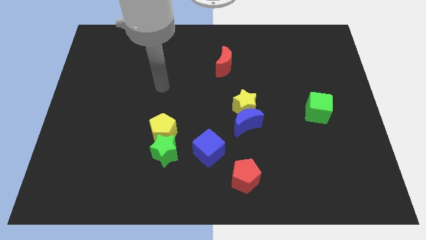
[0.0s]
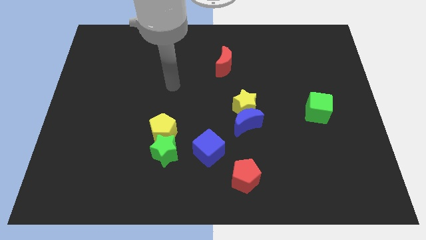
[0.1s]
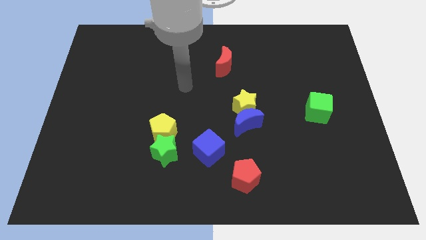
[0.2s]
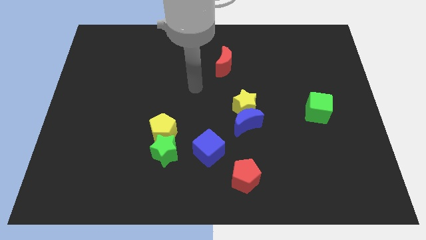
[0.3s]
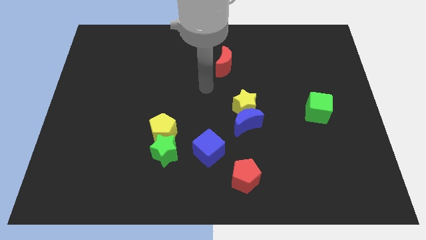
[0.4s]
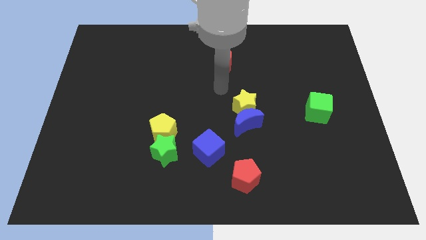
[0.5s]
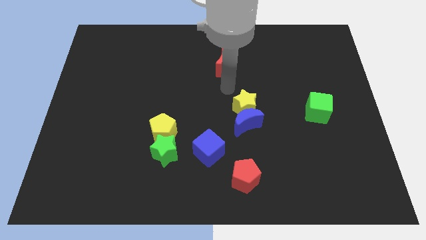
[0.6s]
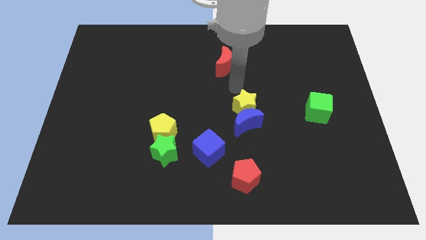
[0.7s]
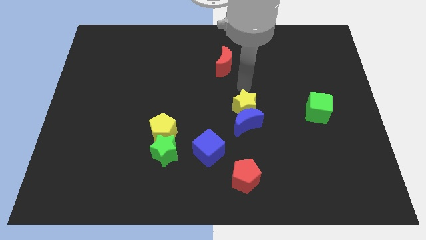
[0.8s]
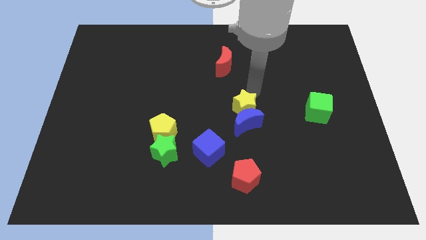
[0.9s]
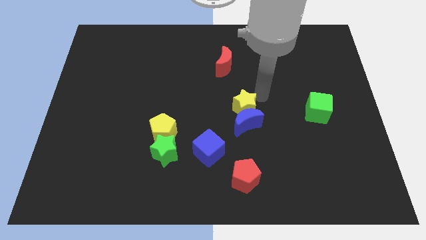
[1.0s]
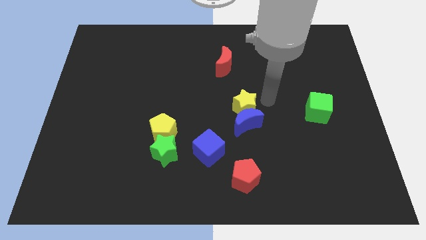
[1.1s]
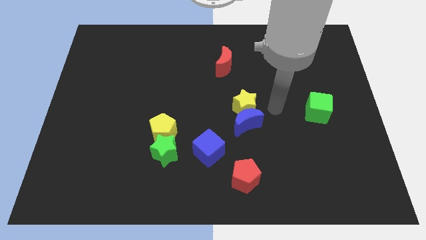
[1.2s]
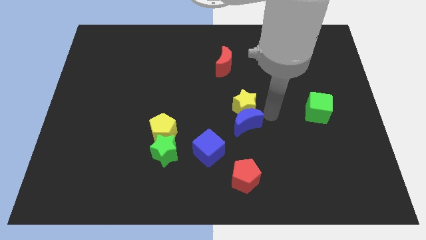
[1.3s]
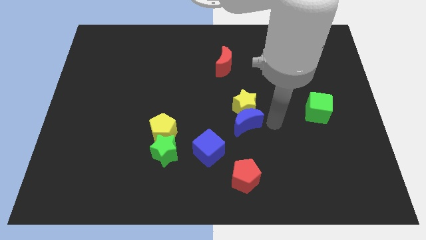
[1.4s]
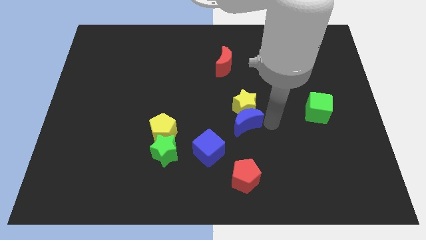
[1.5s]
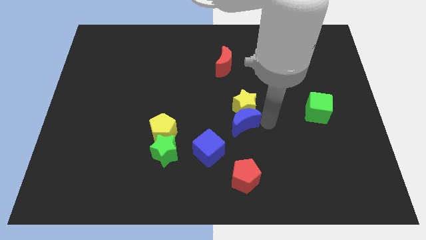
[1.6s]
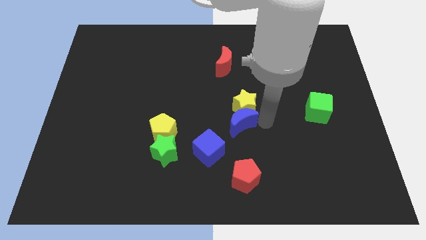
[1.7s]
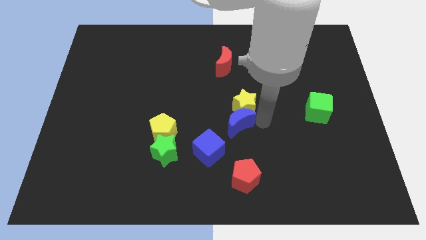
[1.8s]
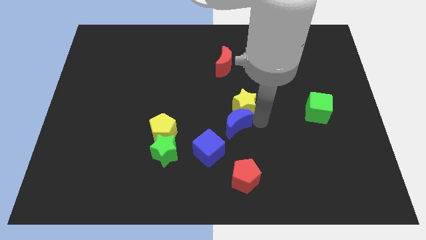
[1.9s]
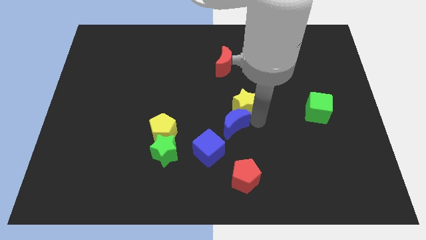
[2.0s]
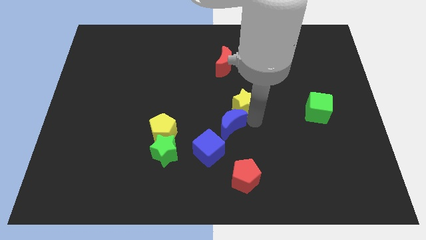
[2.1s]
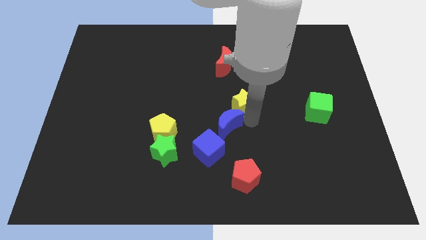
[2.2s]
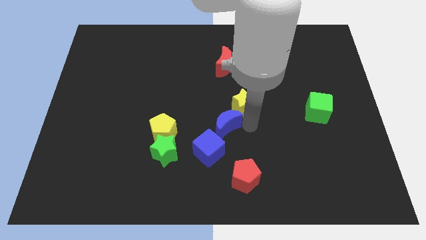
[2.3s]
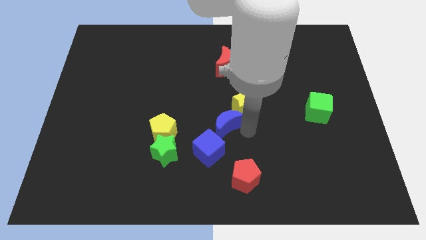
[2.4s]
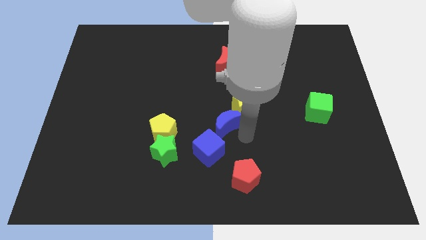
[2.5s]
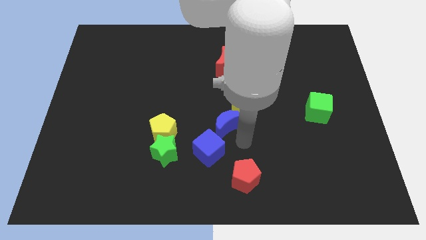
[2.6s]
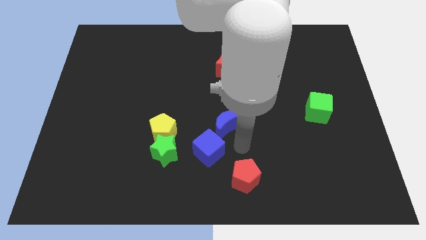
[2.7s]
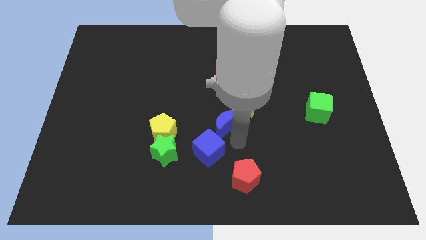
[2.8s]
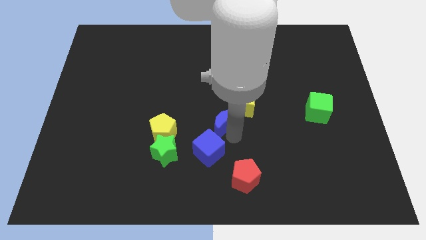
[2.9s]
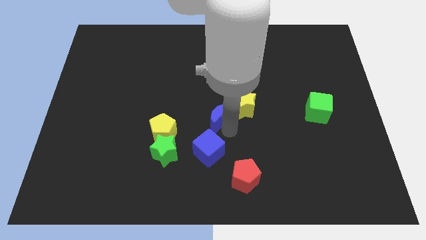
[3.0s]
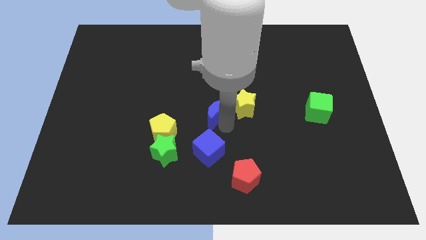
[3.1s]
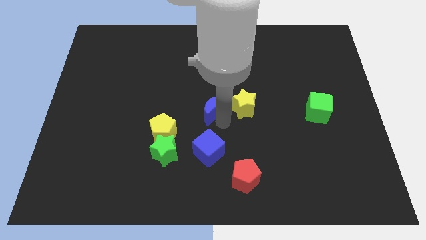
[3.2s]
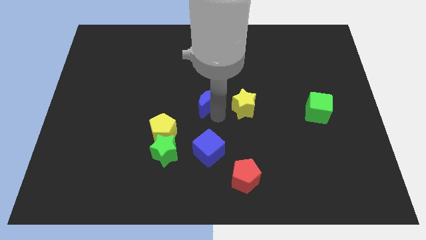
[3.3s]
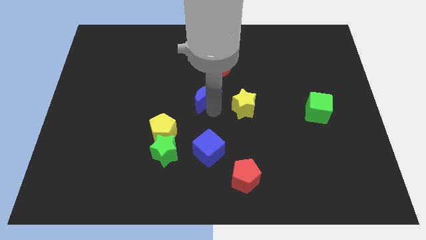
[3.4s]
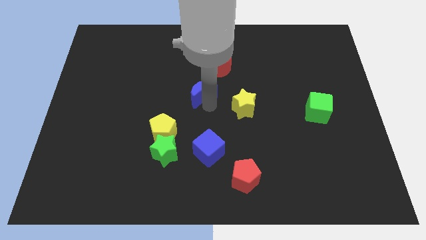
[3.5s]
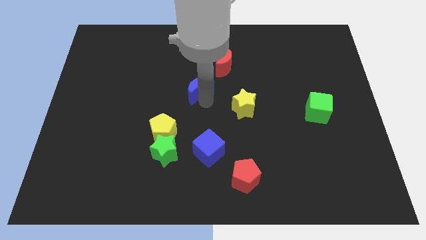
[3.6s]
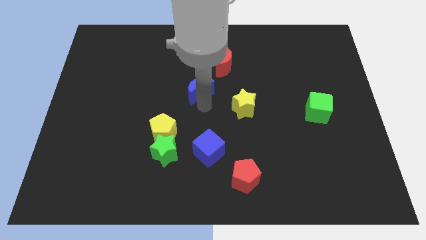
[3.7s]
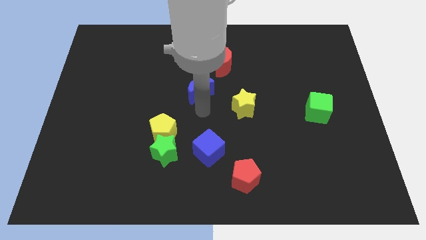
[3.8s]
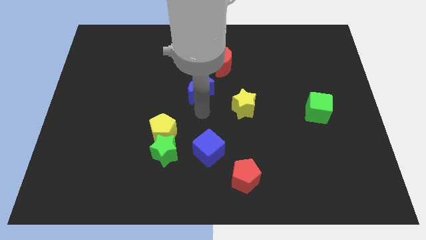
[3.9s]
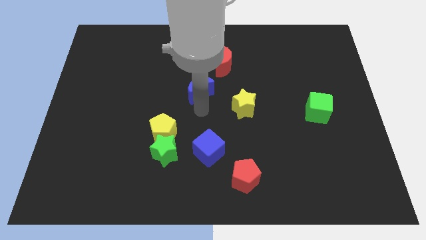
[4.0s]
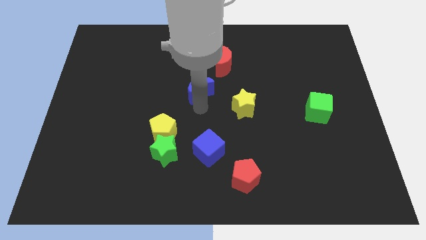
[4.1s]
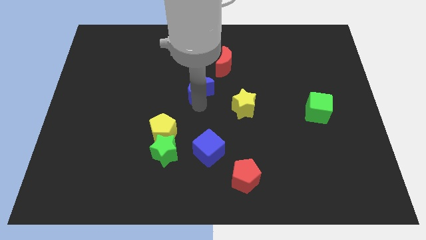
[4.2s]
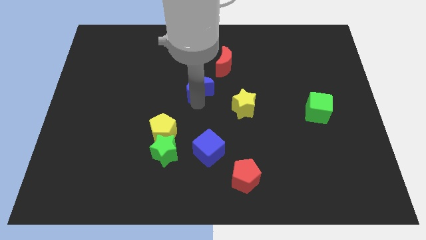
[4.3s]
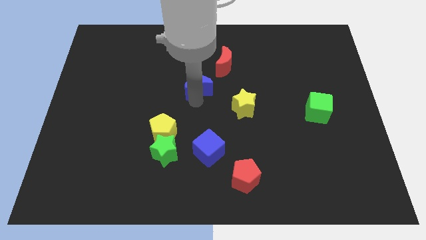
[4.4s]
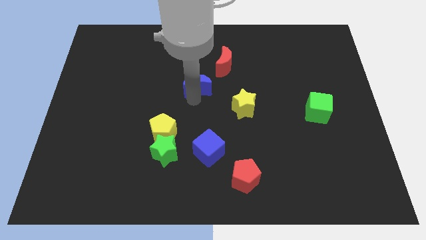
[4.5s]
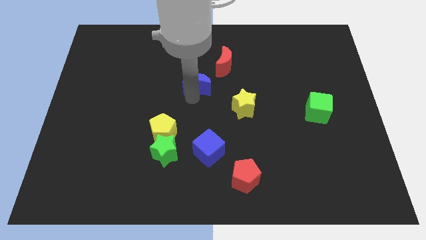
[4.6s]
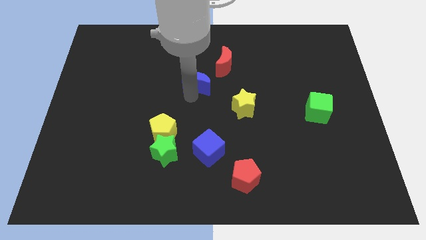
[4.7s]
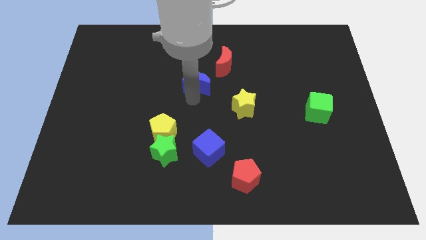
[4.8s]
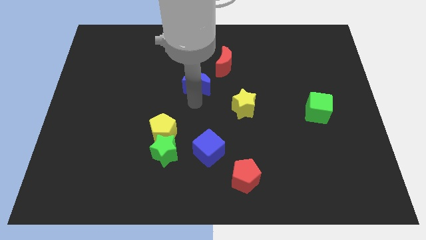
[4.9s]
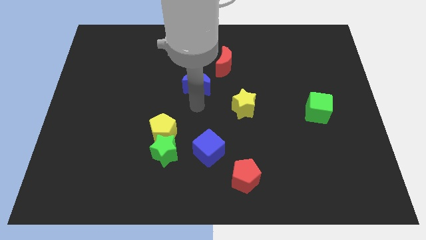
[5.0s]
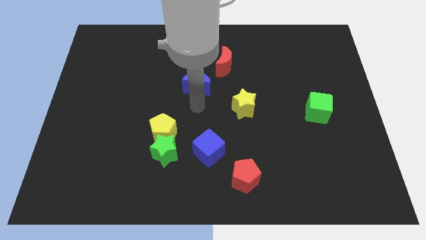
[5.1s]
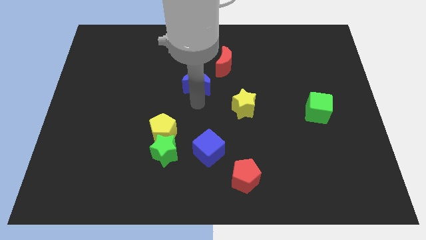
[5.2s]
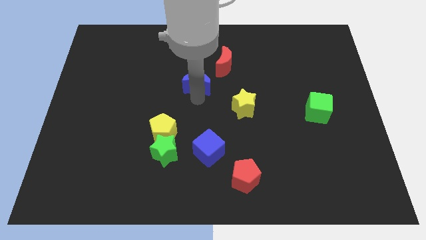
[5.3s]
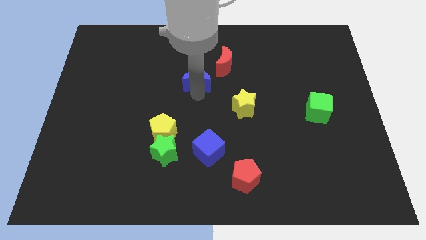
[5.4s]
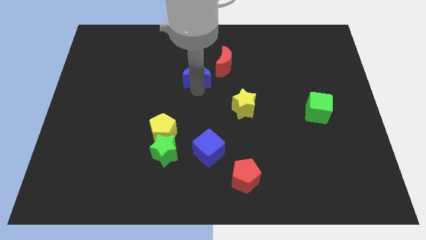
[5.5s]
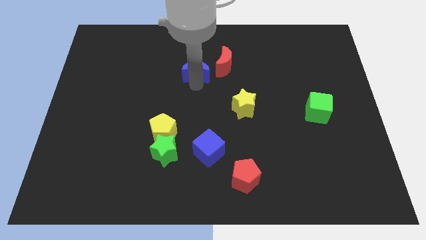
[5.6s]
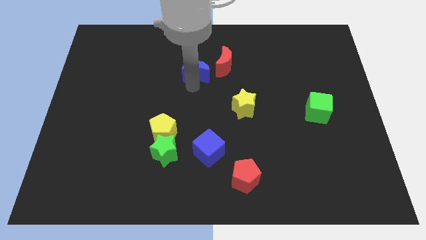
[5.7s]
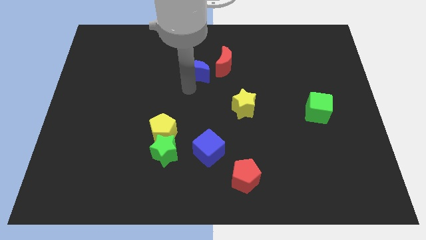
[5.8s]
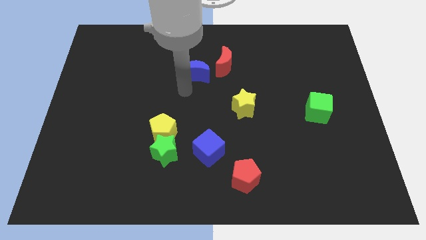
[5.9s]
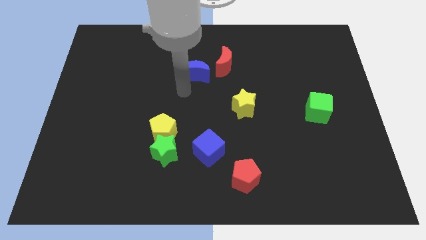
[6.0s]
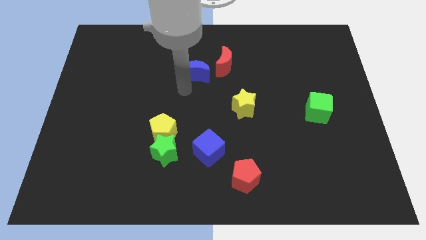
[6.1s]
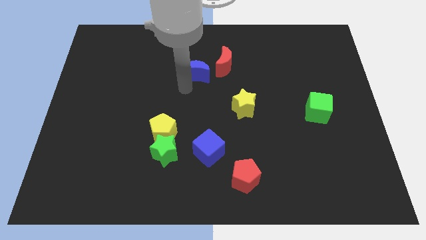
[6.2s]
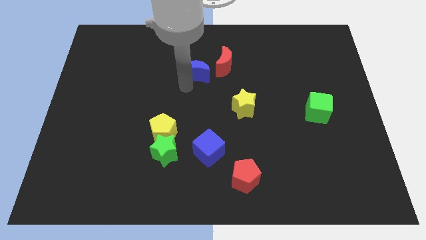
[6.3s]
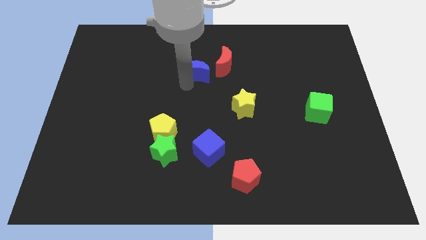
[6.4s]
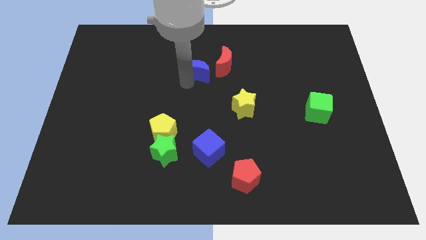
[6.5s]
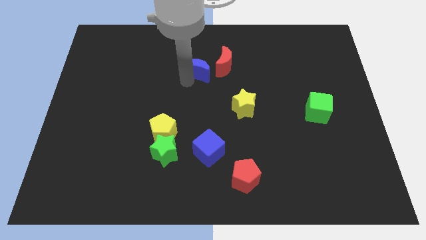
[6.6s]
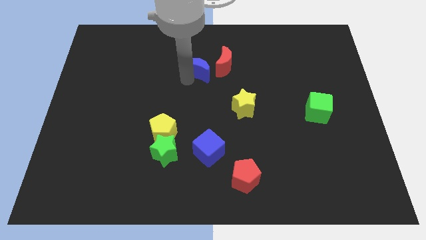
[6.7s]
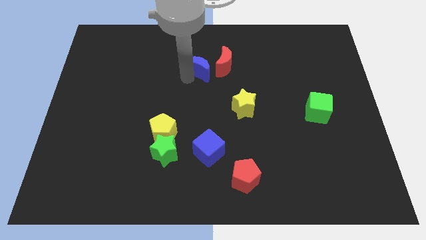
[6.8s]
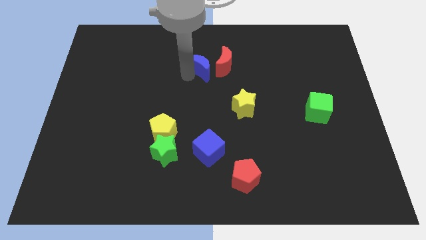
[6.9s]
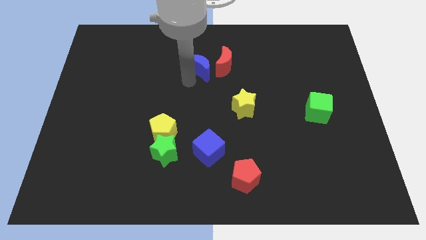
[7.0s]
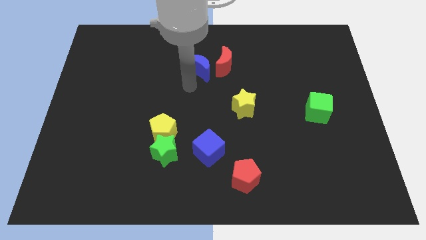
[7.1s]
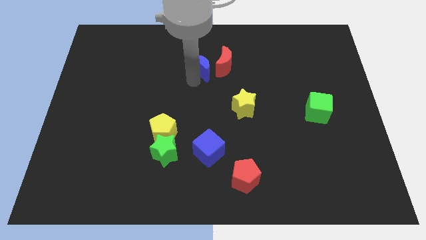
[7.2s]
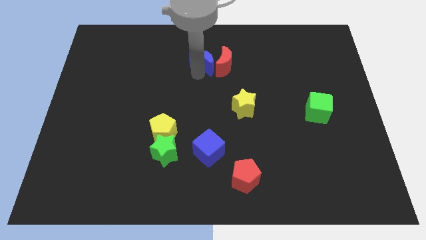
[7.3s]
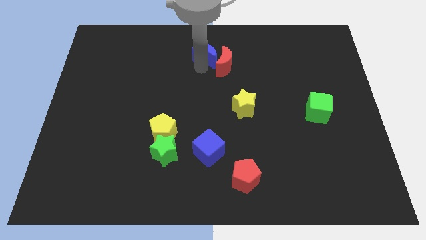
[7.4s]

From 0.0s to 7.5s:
put the blue moon to the top
